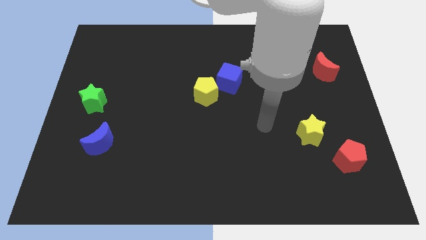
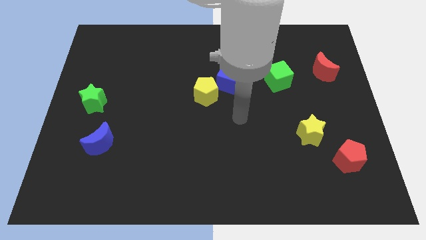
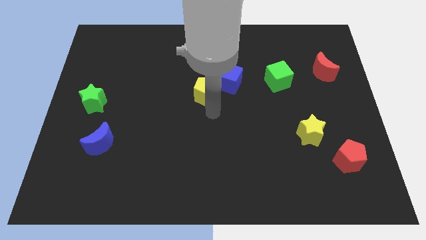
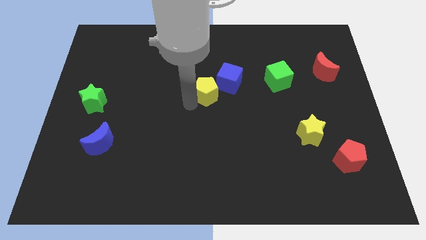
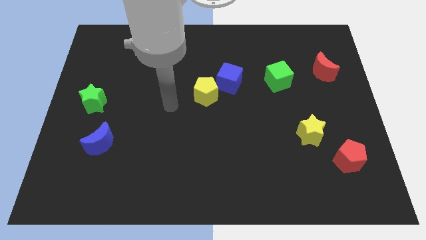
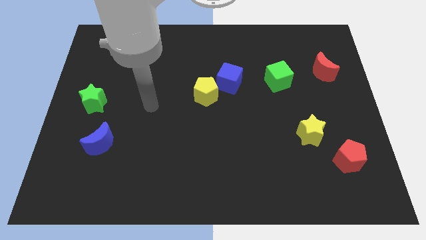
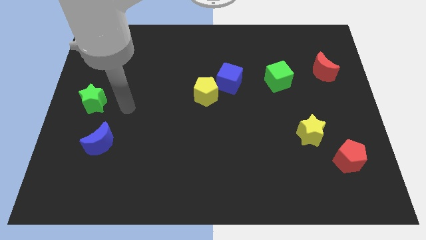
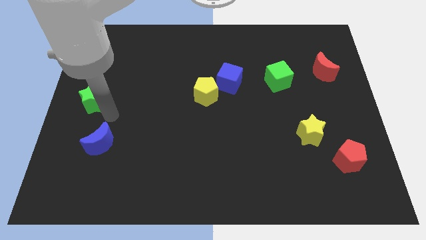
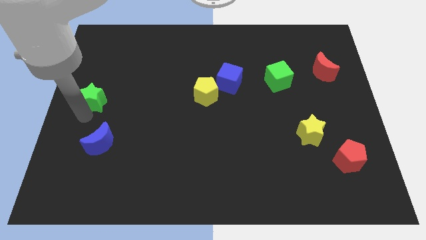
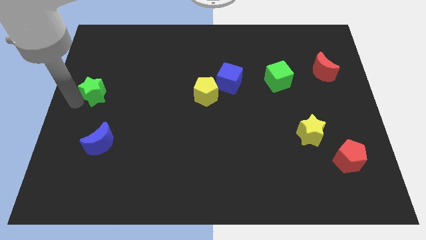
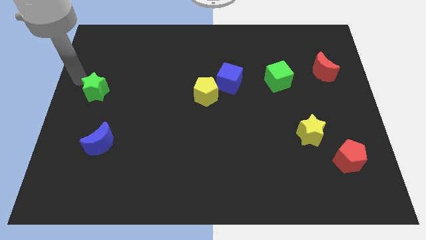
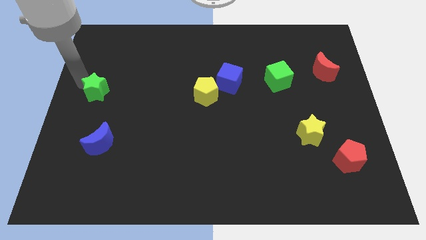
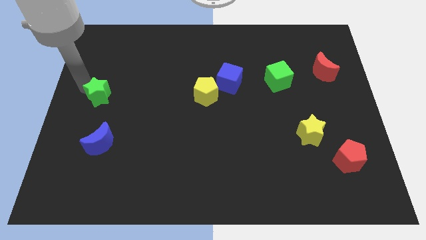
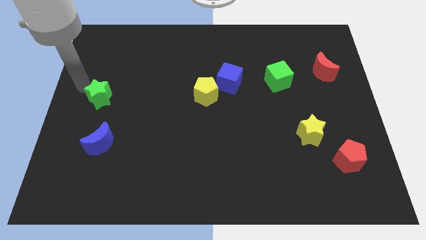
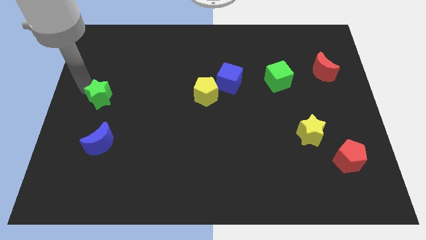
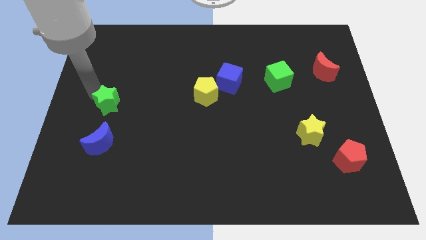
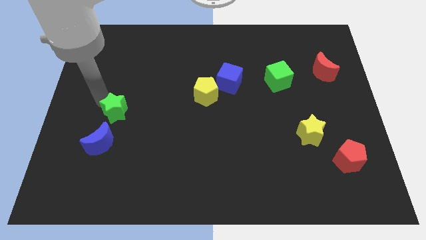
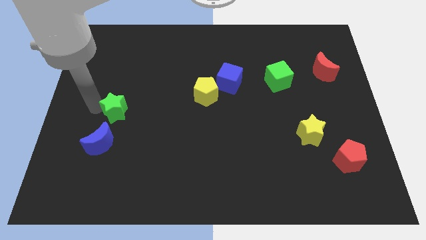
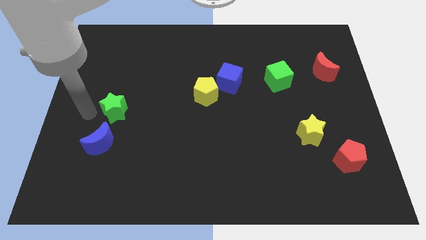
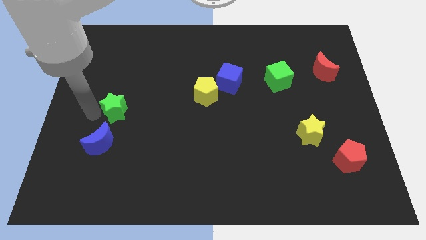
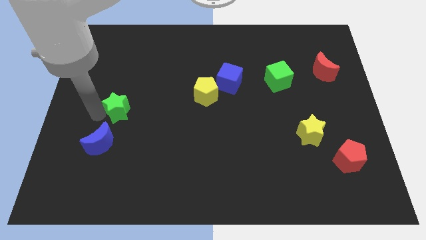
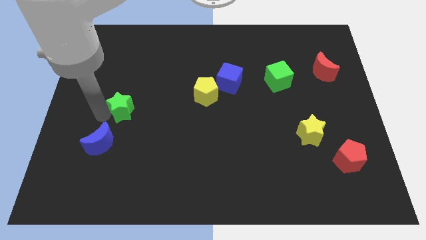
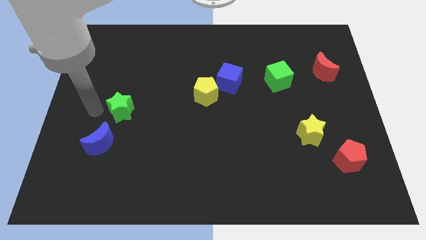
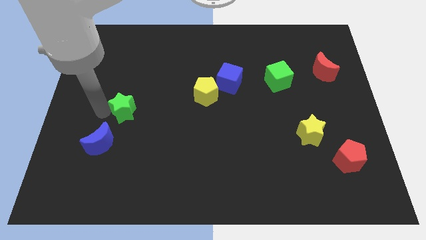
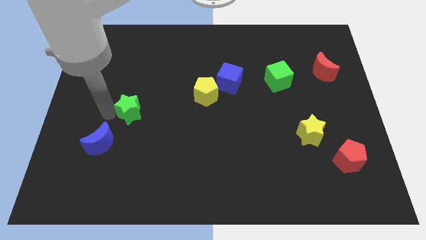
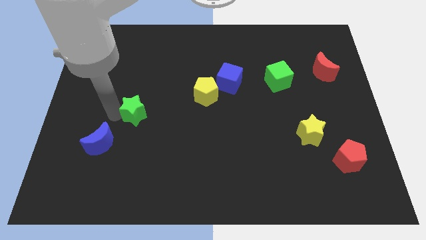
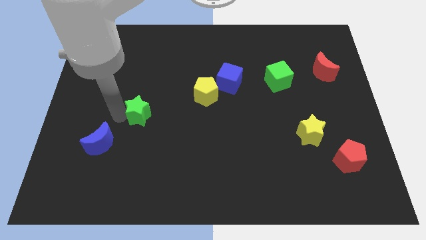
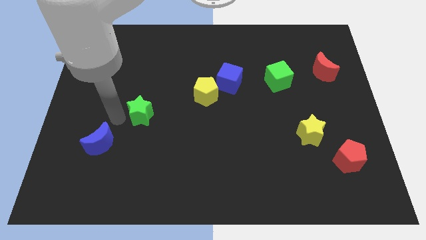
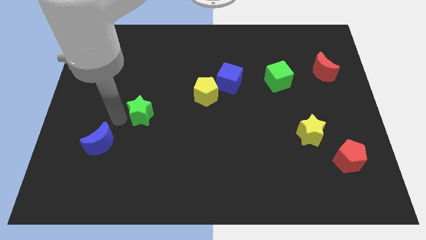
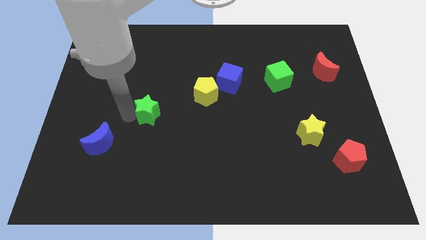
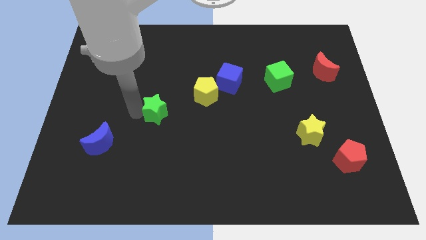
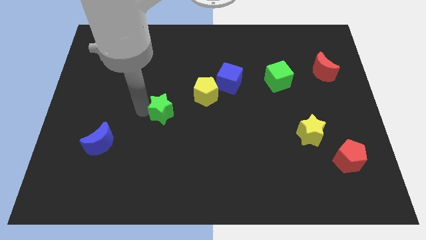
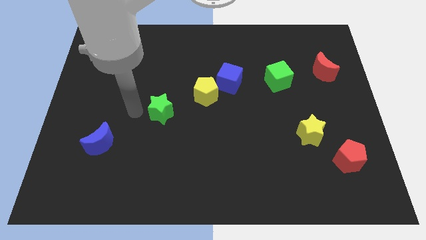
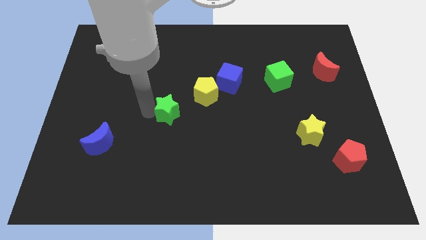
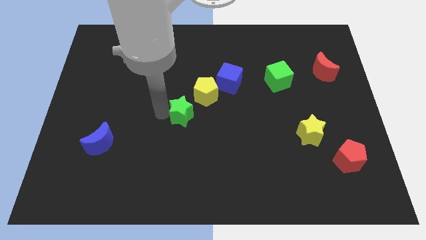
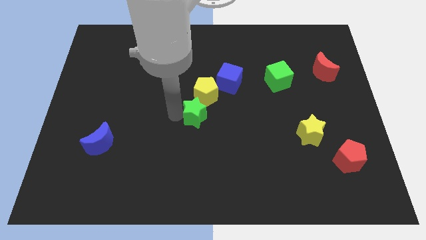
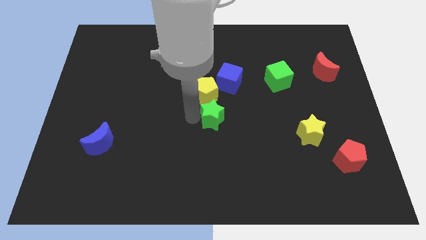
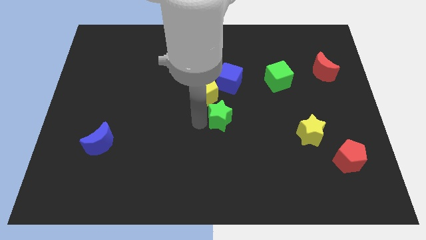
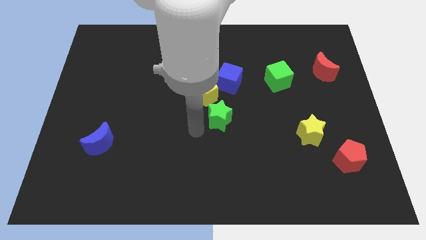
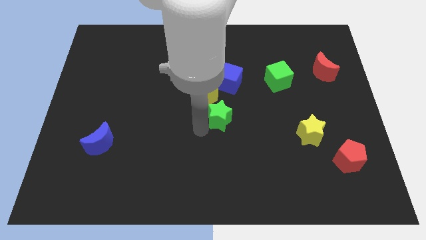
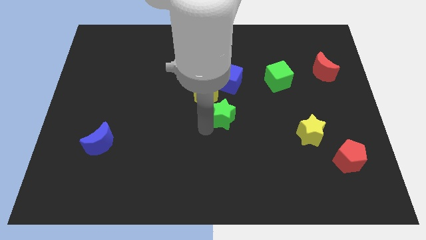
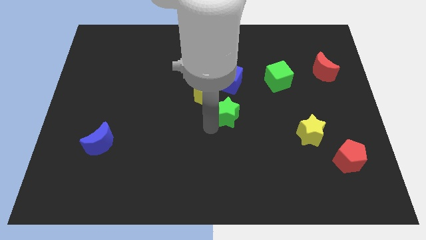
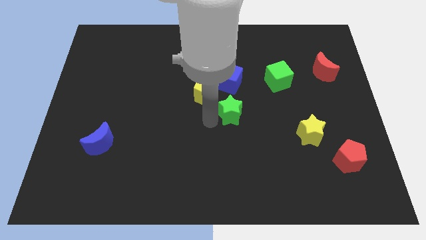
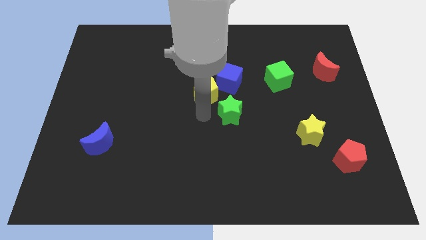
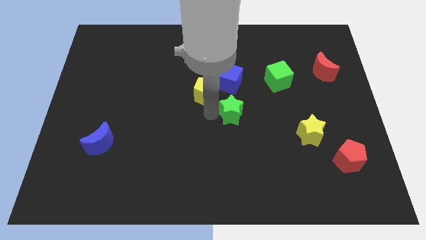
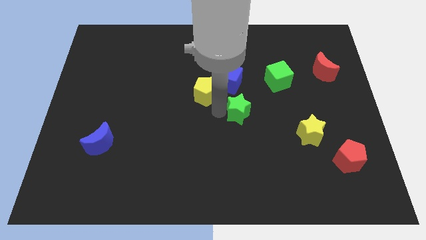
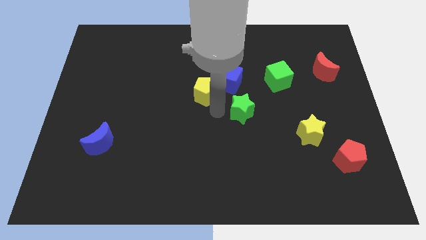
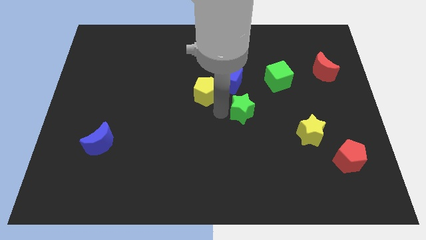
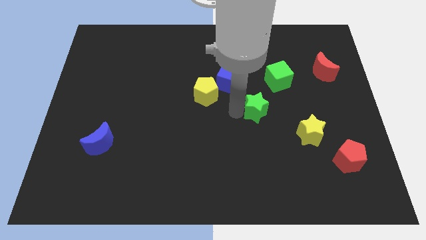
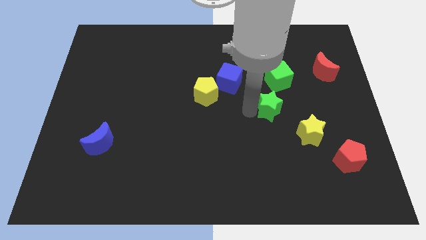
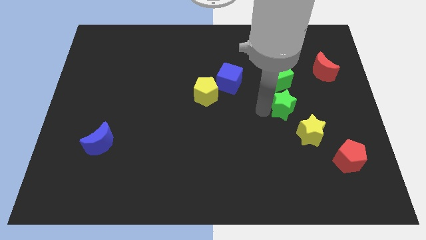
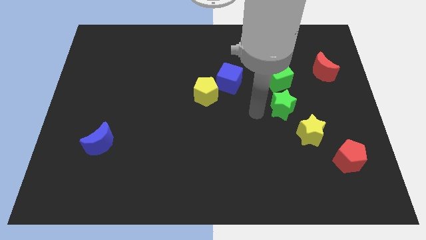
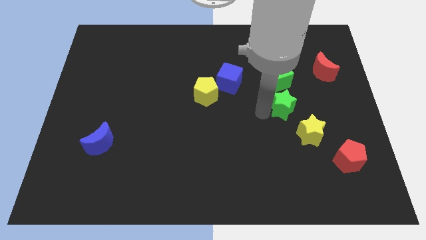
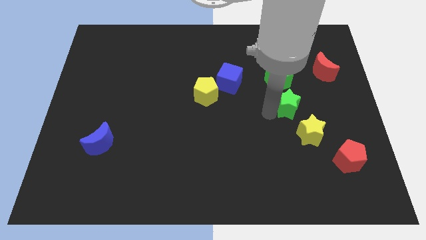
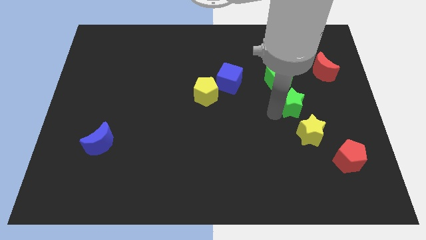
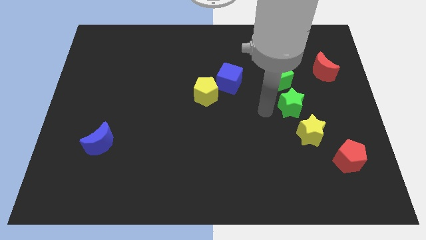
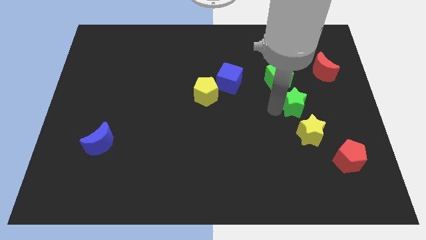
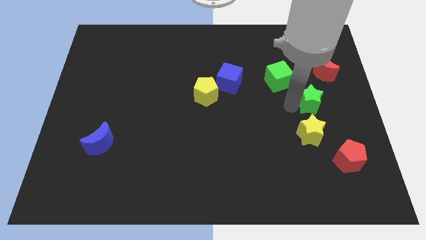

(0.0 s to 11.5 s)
put the green star below the red moon

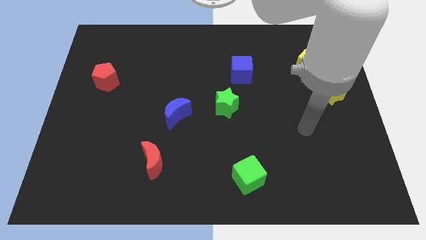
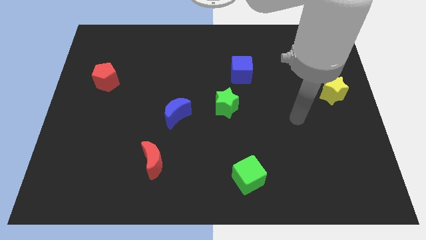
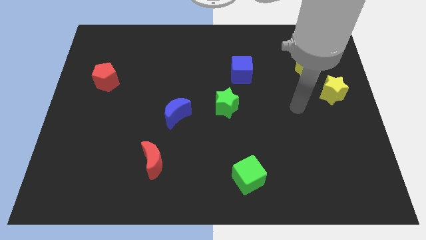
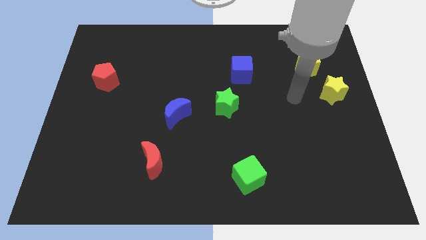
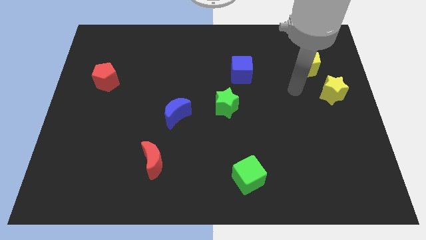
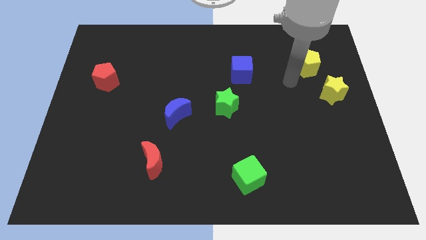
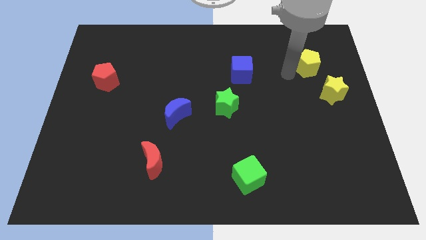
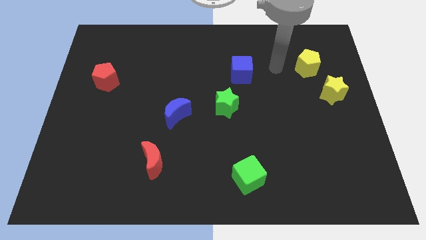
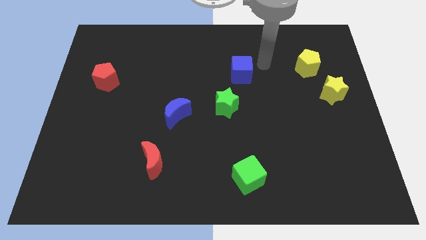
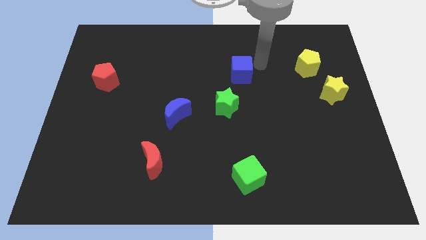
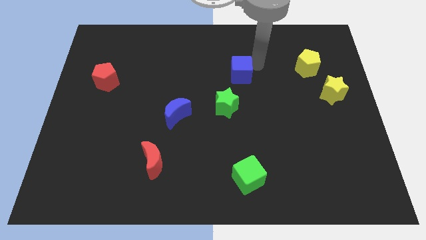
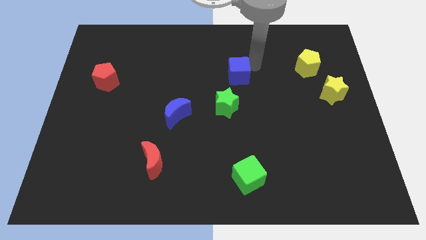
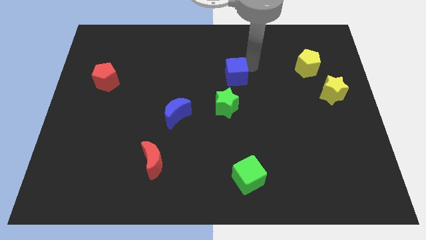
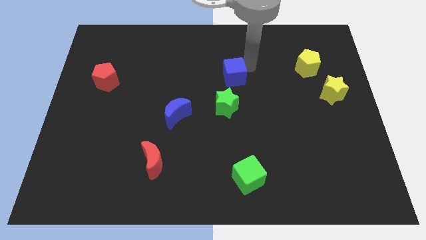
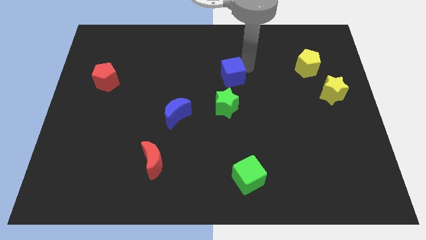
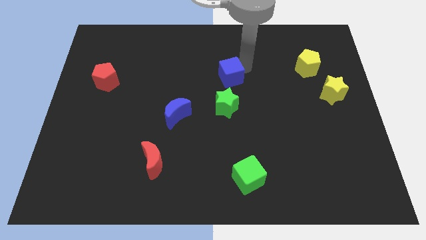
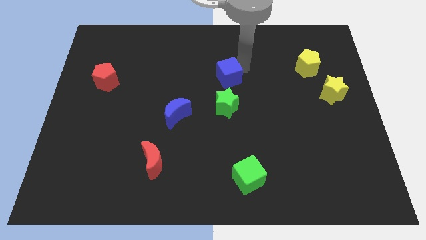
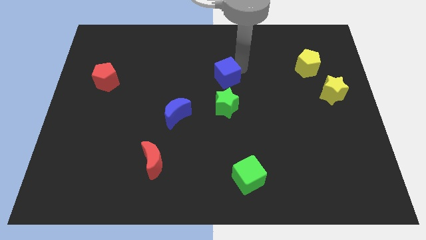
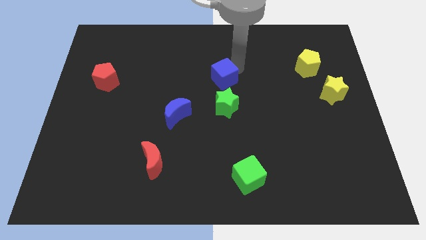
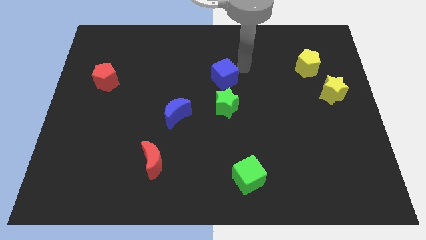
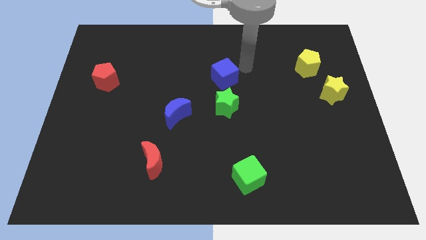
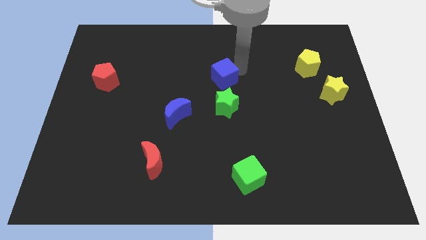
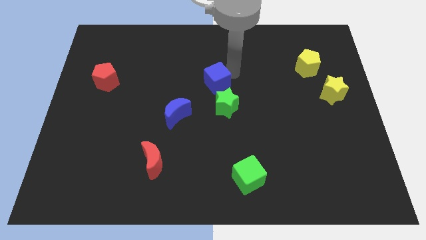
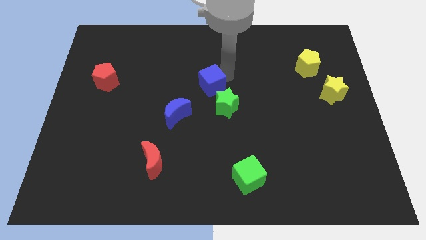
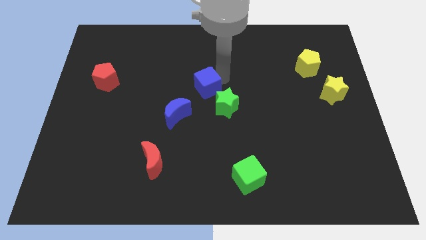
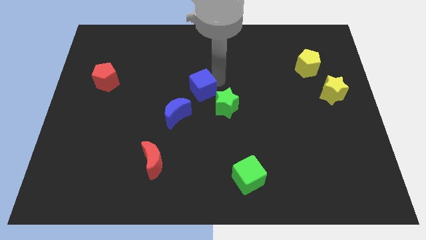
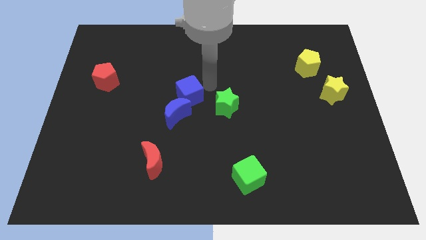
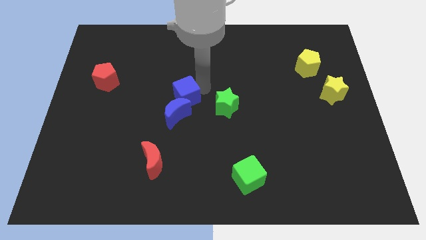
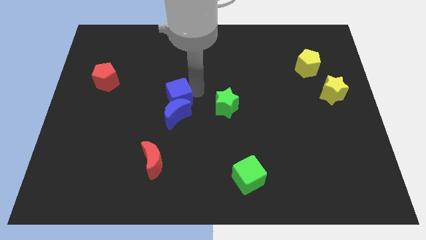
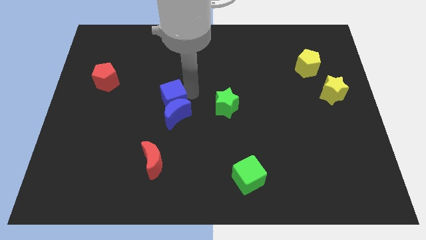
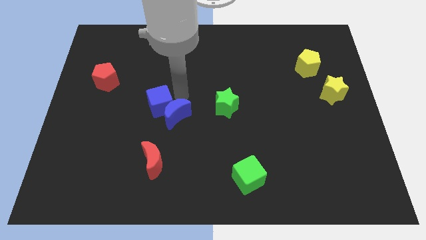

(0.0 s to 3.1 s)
move the blue cube just left of the blue moon
